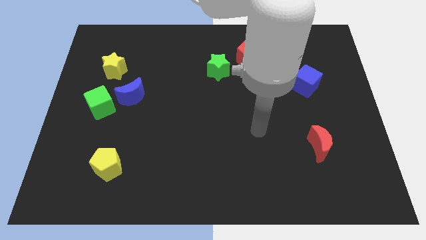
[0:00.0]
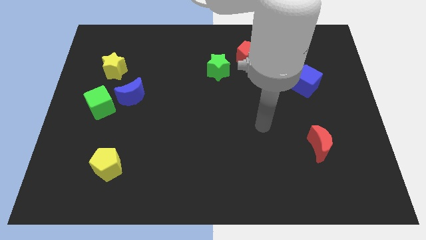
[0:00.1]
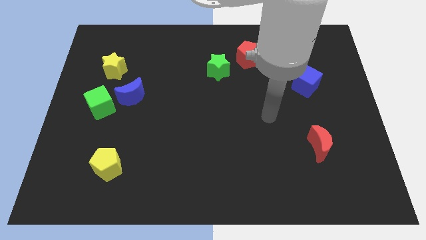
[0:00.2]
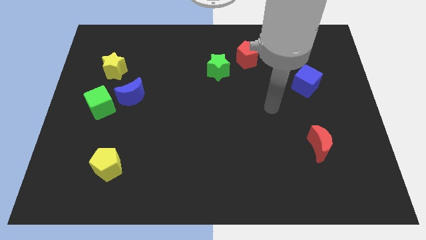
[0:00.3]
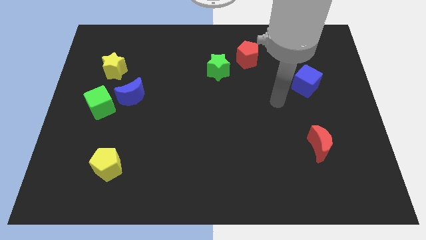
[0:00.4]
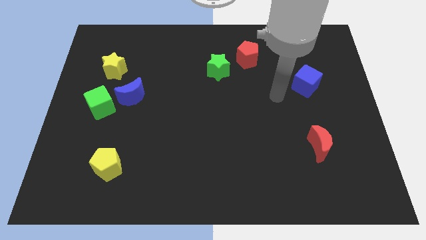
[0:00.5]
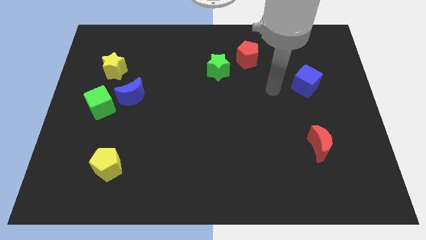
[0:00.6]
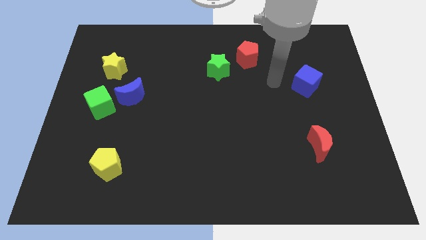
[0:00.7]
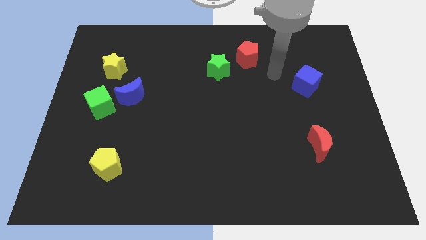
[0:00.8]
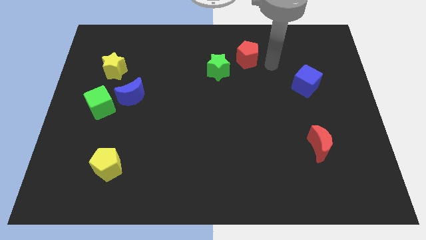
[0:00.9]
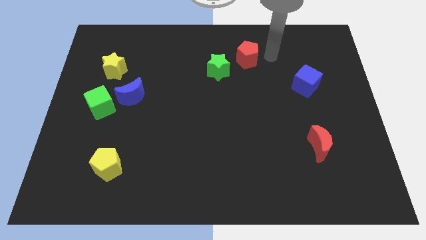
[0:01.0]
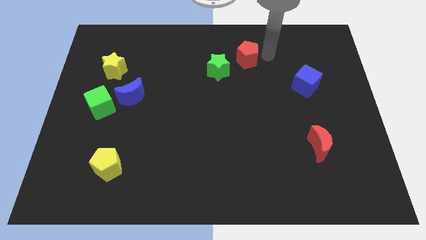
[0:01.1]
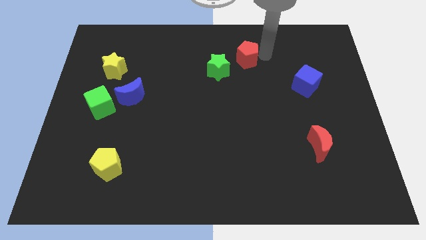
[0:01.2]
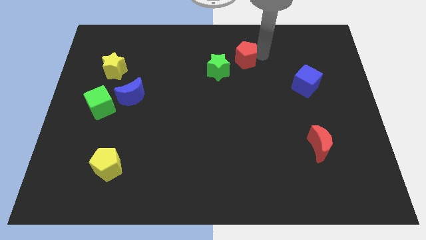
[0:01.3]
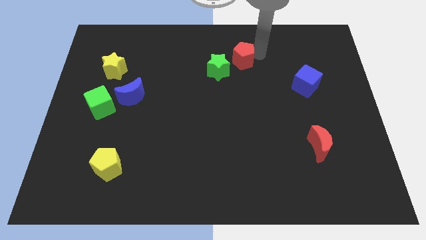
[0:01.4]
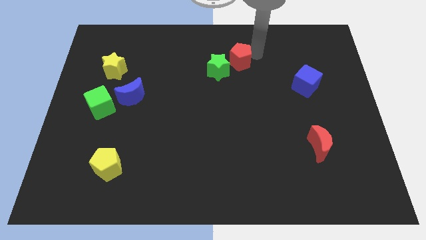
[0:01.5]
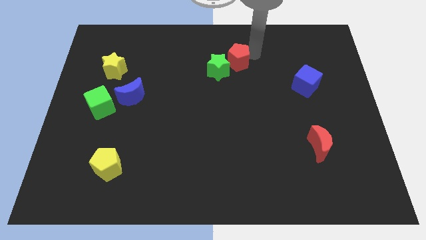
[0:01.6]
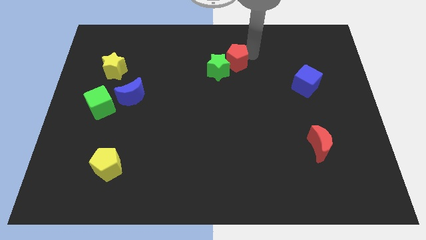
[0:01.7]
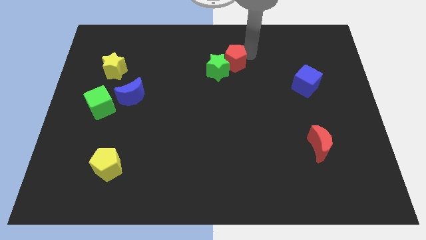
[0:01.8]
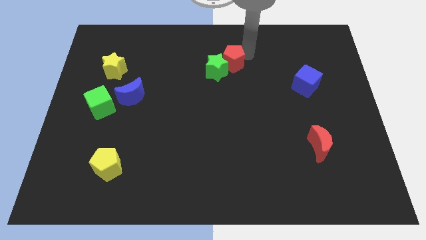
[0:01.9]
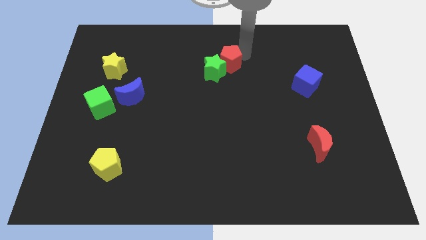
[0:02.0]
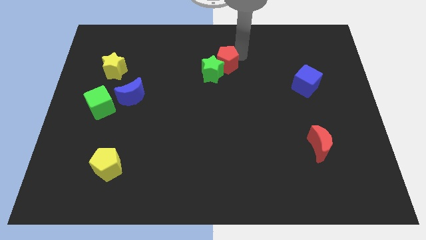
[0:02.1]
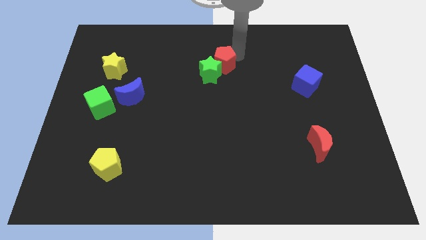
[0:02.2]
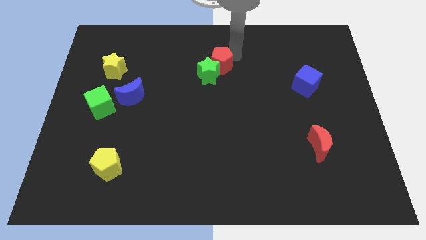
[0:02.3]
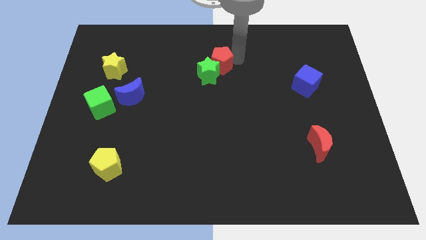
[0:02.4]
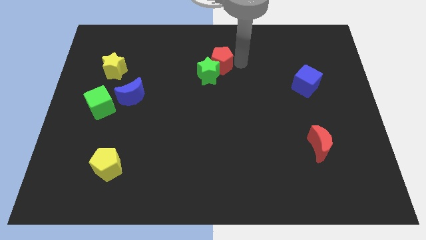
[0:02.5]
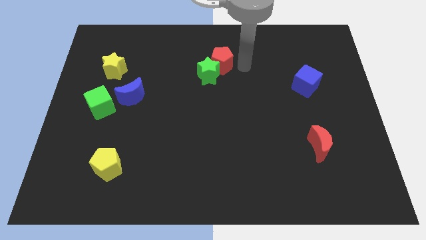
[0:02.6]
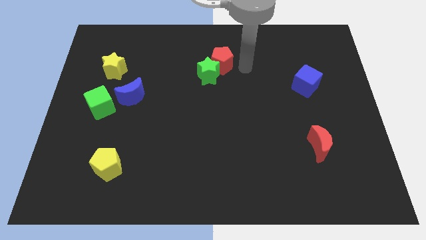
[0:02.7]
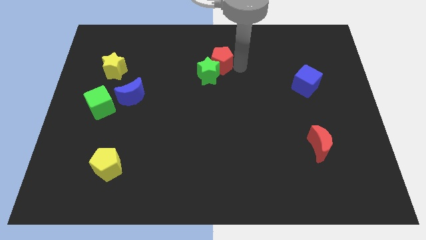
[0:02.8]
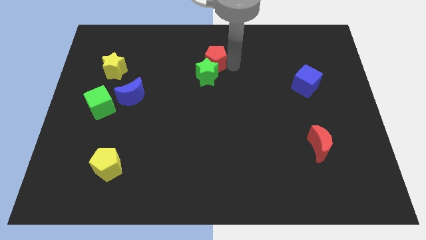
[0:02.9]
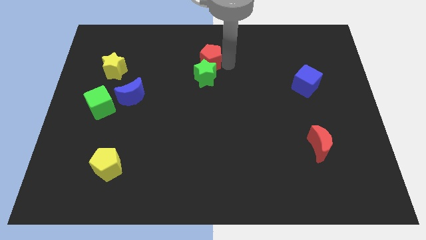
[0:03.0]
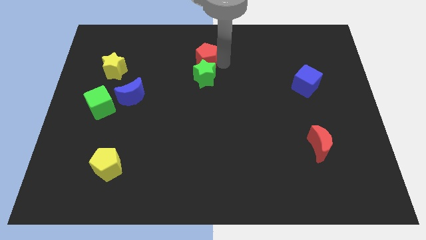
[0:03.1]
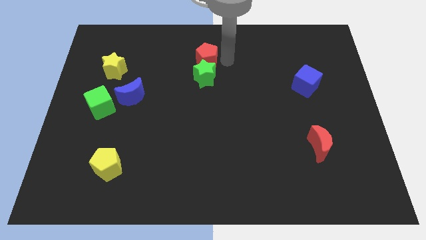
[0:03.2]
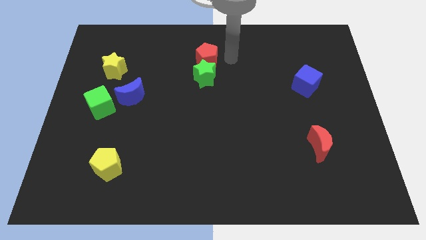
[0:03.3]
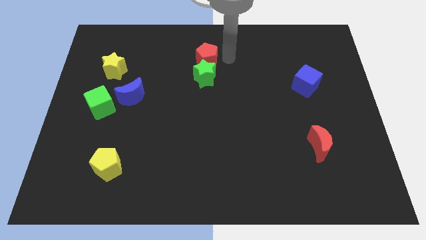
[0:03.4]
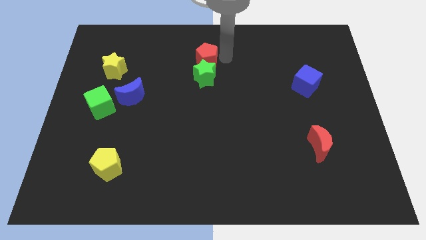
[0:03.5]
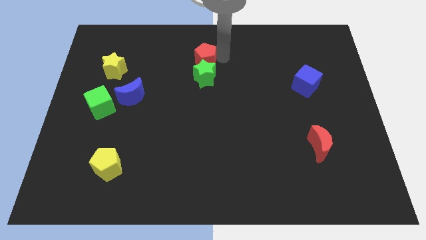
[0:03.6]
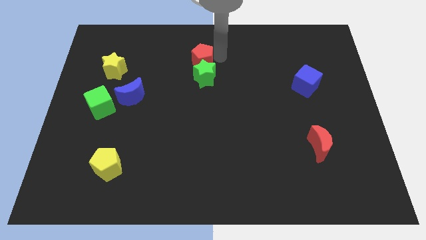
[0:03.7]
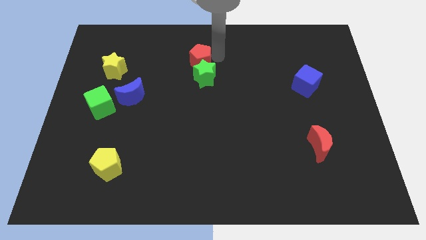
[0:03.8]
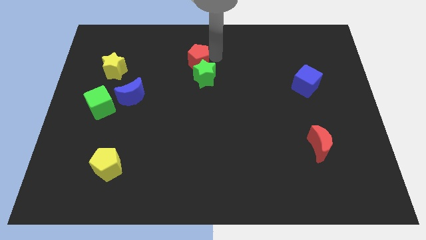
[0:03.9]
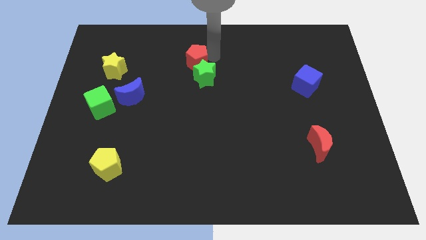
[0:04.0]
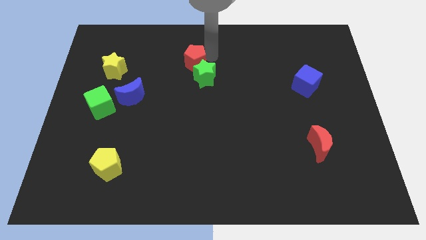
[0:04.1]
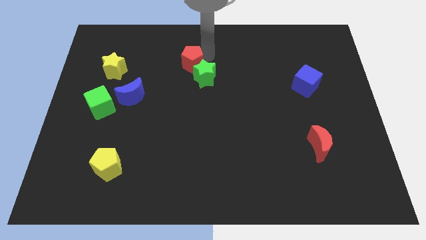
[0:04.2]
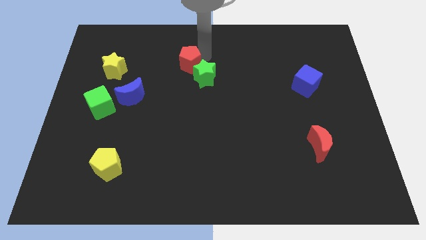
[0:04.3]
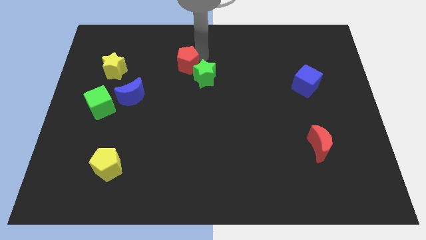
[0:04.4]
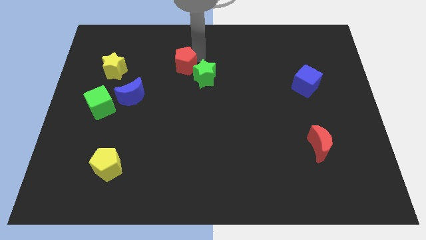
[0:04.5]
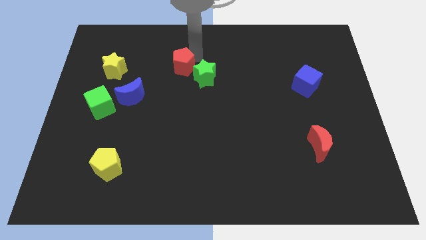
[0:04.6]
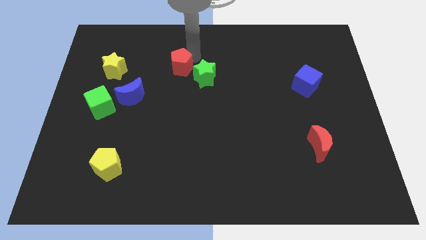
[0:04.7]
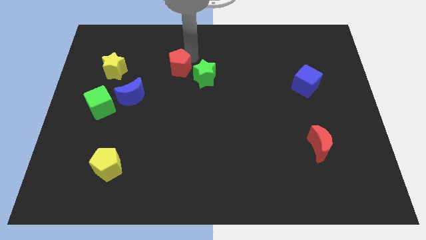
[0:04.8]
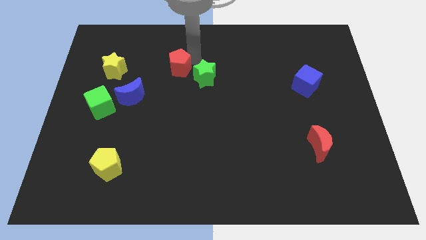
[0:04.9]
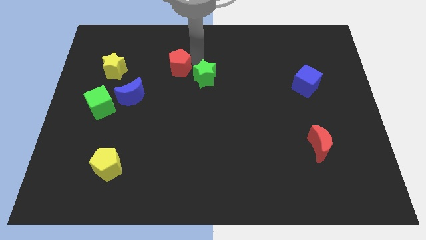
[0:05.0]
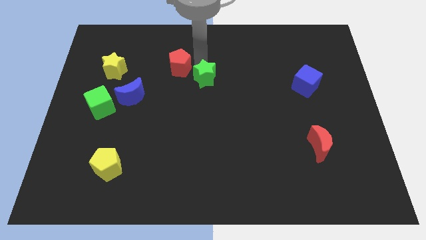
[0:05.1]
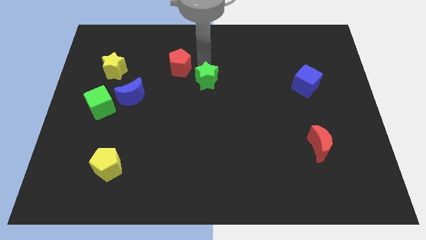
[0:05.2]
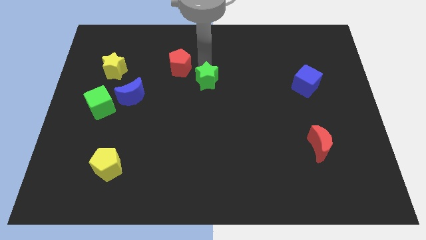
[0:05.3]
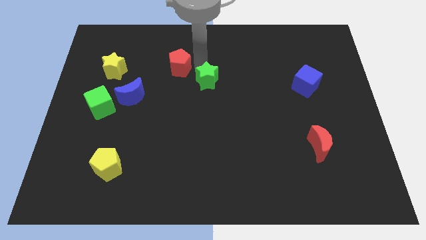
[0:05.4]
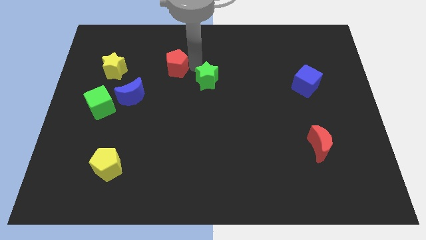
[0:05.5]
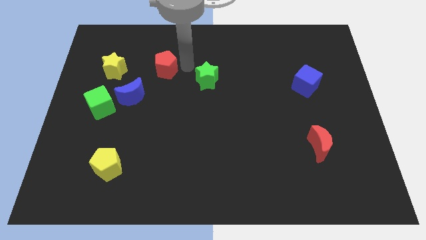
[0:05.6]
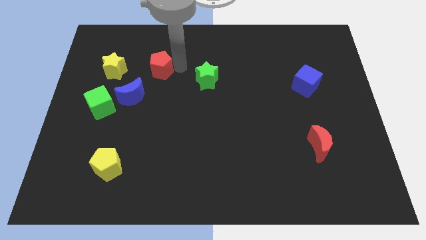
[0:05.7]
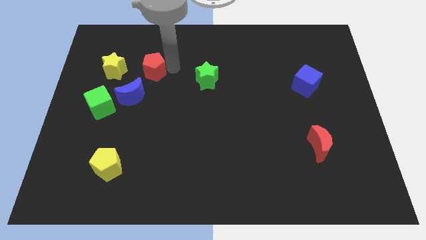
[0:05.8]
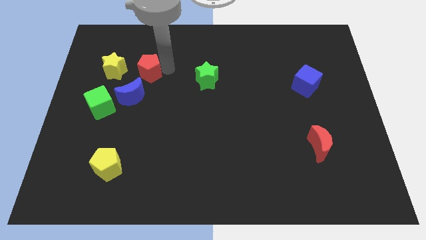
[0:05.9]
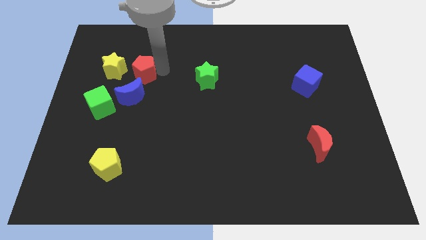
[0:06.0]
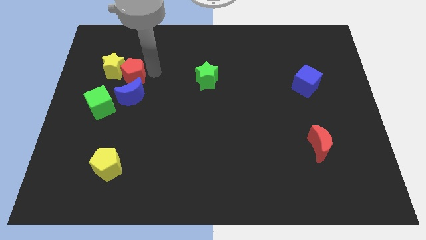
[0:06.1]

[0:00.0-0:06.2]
move the red pentagon to the yellow star
